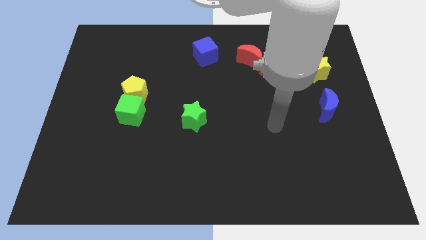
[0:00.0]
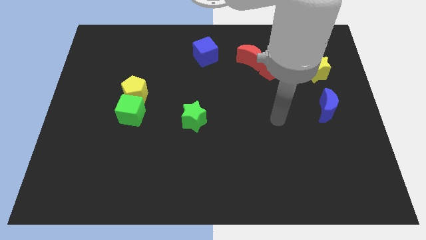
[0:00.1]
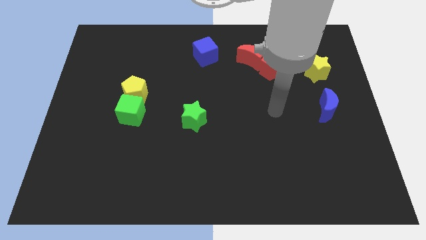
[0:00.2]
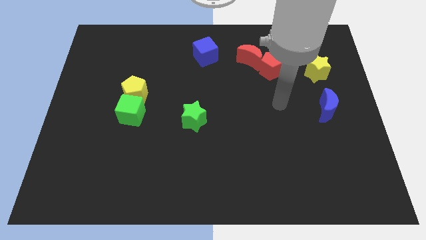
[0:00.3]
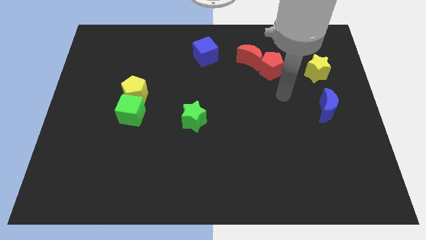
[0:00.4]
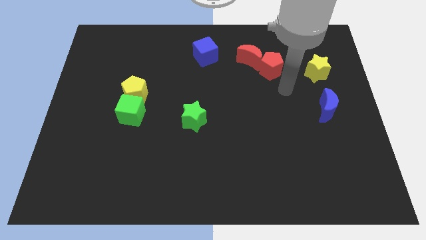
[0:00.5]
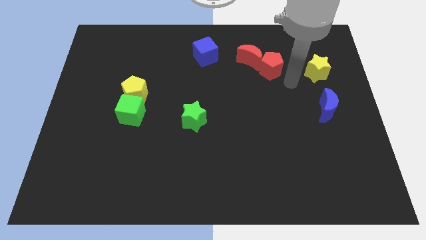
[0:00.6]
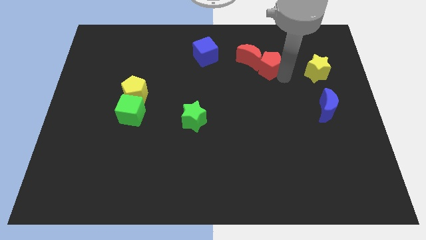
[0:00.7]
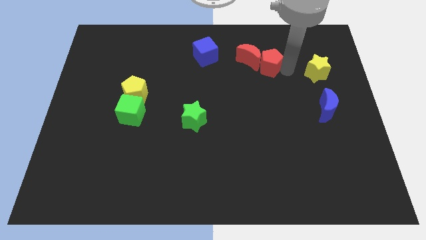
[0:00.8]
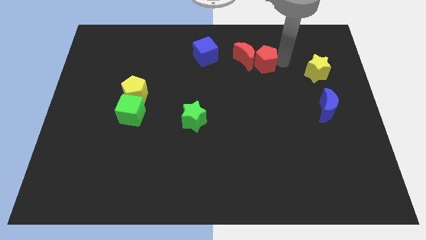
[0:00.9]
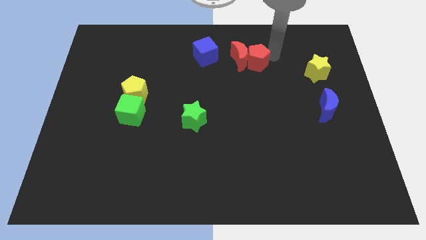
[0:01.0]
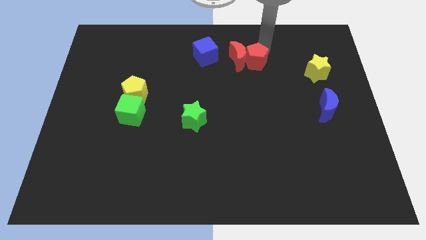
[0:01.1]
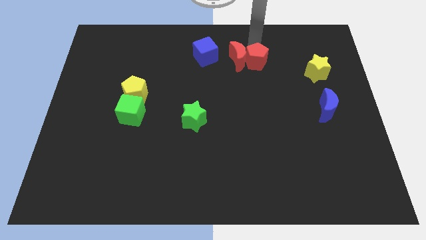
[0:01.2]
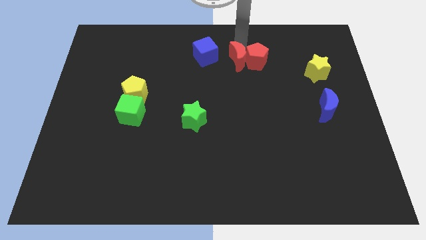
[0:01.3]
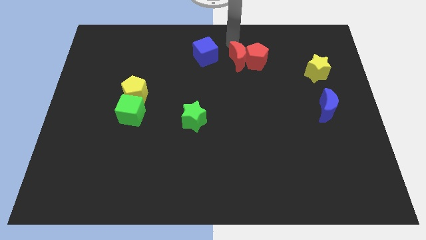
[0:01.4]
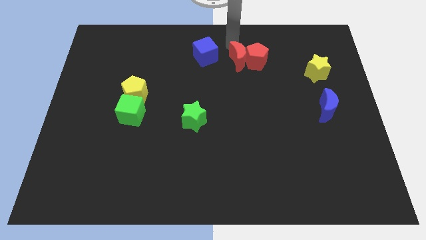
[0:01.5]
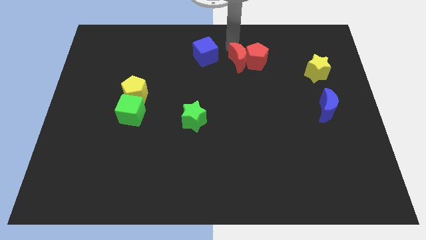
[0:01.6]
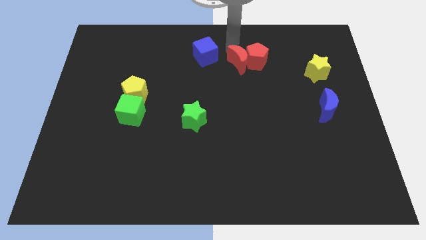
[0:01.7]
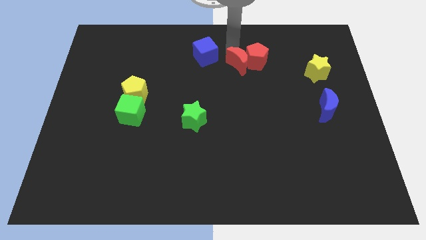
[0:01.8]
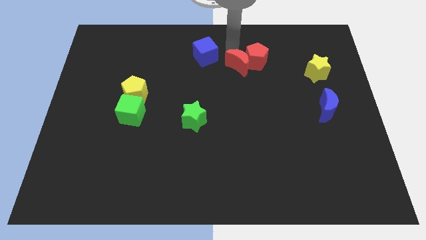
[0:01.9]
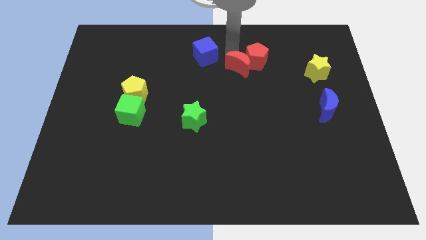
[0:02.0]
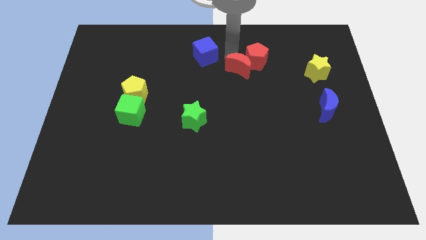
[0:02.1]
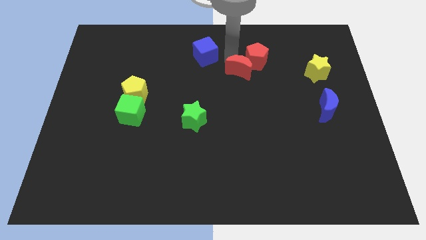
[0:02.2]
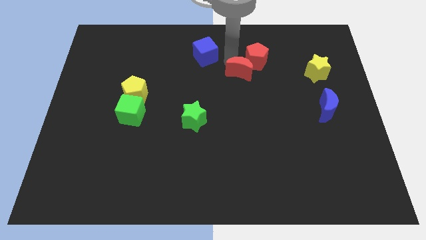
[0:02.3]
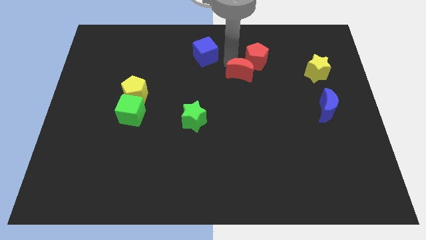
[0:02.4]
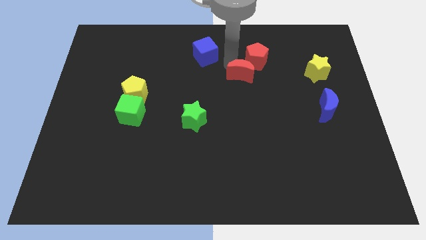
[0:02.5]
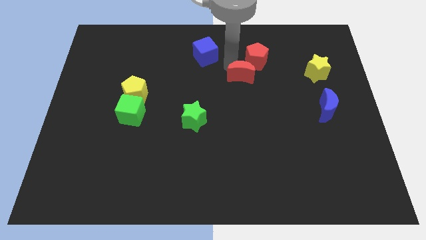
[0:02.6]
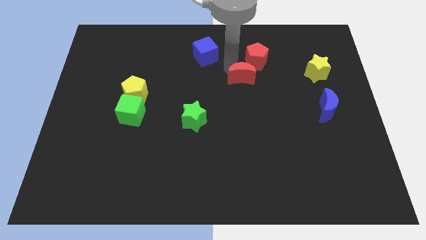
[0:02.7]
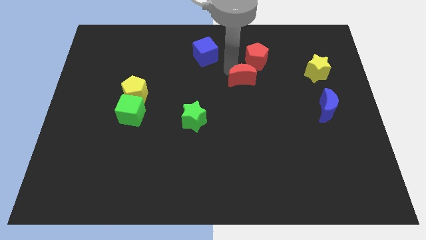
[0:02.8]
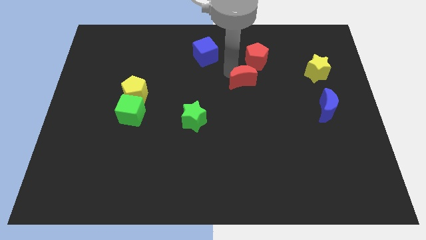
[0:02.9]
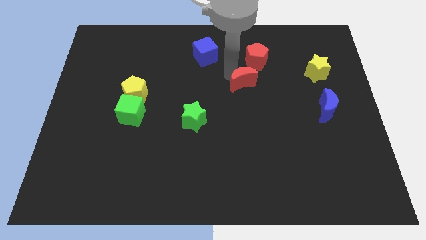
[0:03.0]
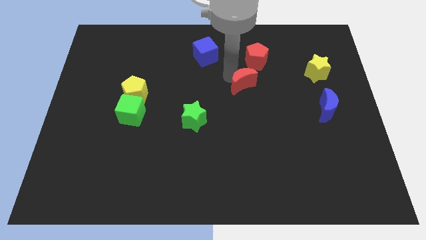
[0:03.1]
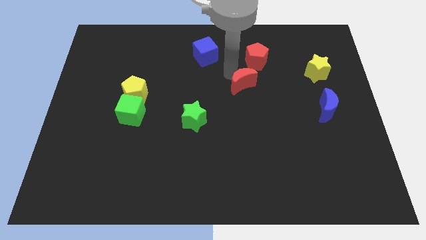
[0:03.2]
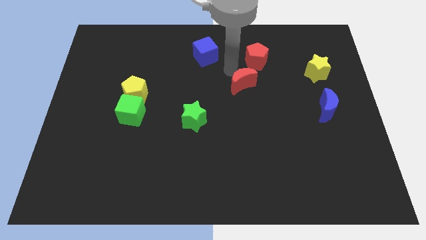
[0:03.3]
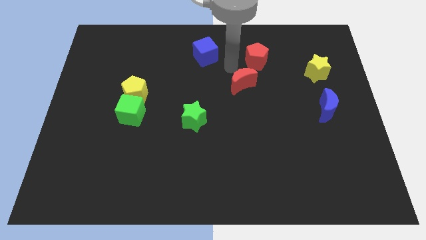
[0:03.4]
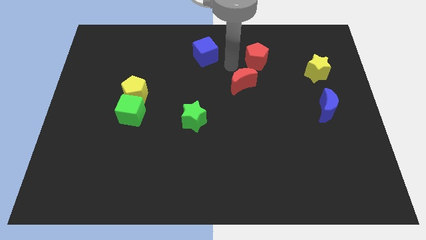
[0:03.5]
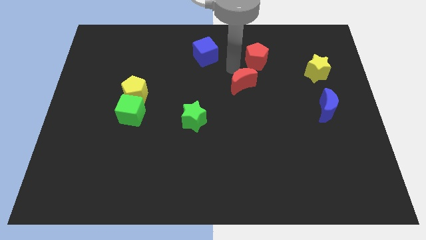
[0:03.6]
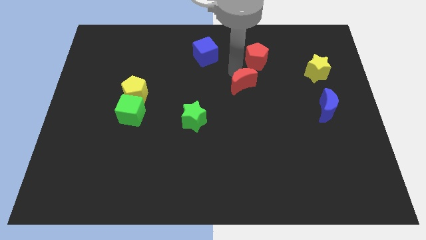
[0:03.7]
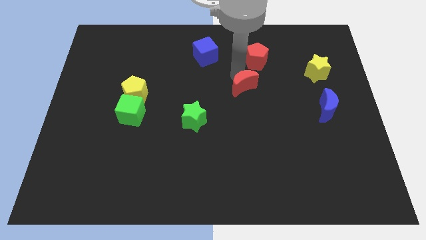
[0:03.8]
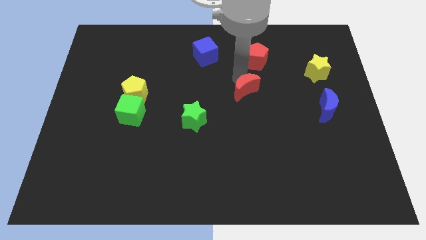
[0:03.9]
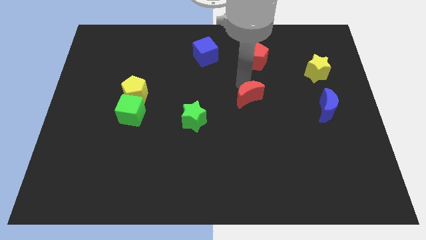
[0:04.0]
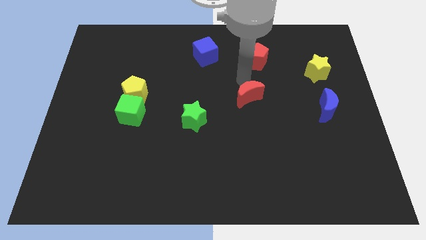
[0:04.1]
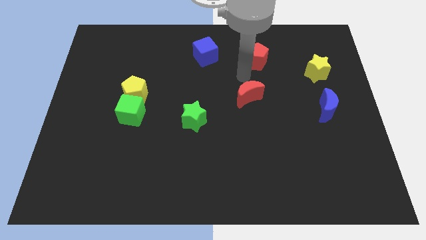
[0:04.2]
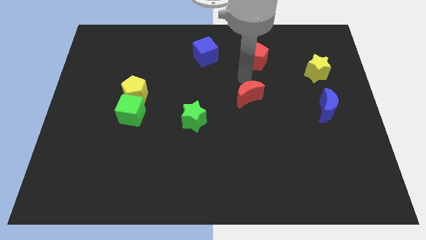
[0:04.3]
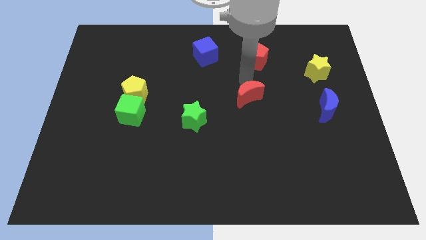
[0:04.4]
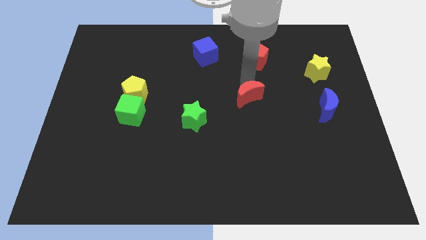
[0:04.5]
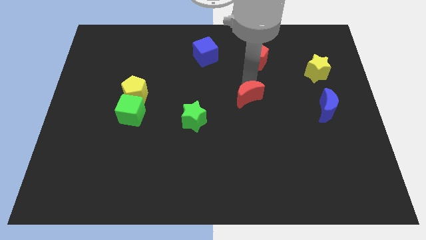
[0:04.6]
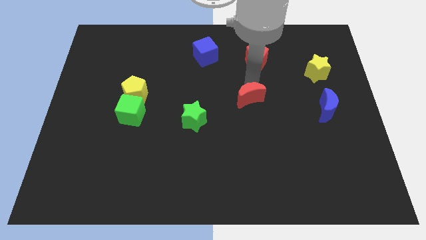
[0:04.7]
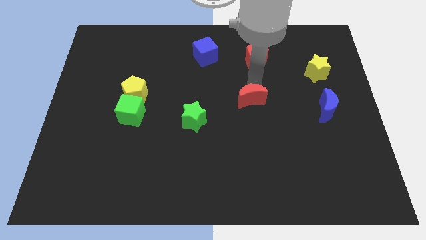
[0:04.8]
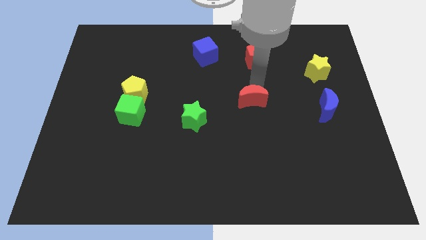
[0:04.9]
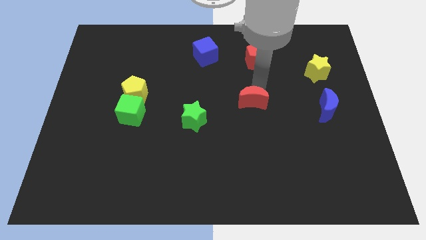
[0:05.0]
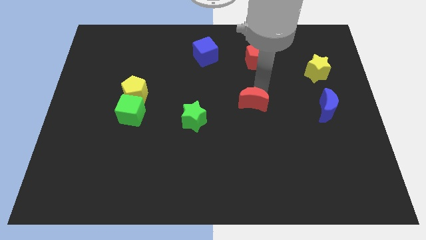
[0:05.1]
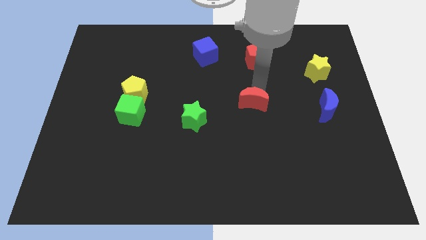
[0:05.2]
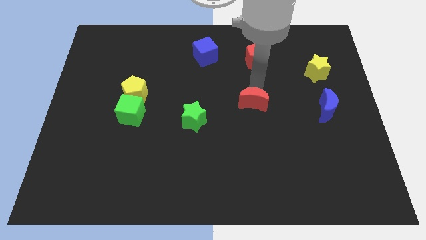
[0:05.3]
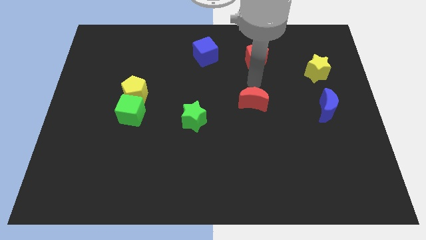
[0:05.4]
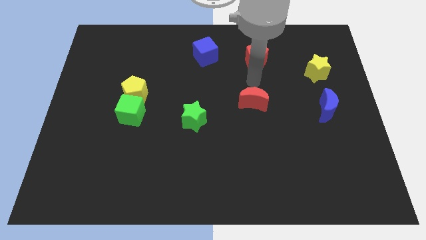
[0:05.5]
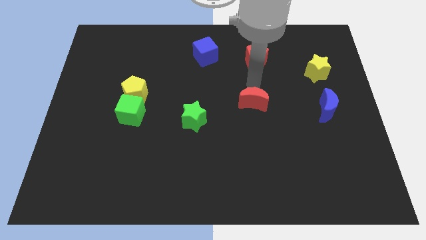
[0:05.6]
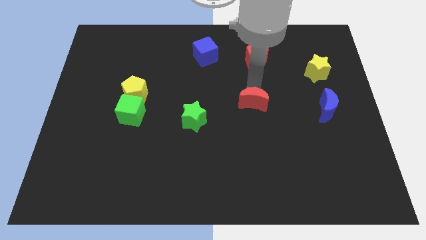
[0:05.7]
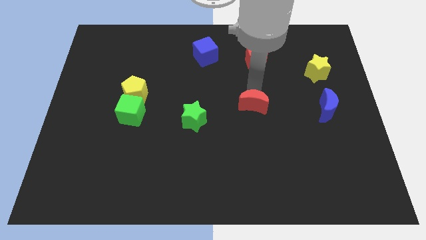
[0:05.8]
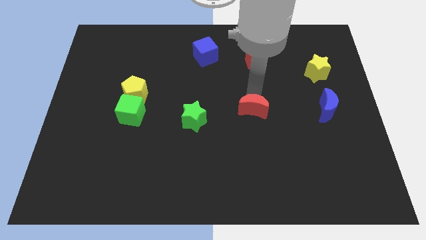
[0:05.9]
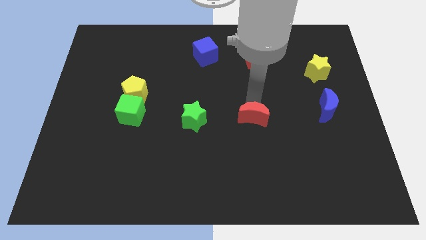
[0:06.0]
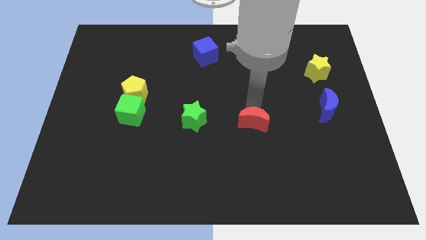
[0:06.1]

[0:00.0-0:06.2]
push the red moon down

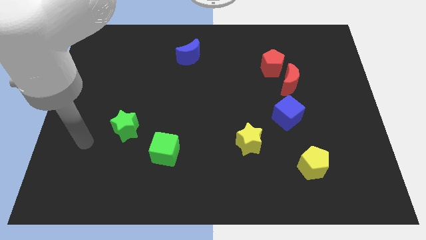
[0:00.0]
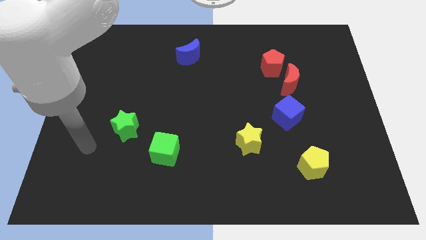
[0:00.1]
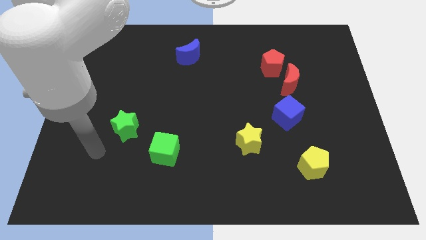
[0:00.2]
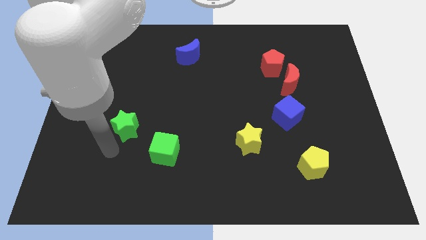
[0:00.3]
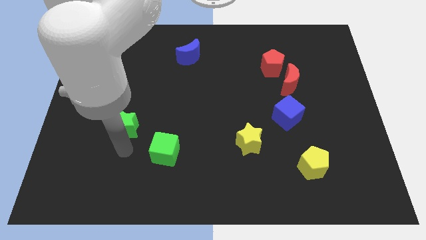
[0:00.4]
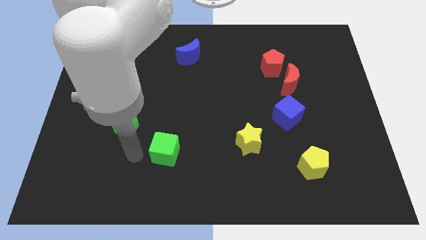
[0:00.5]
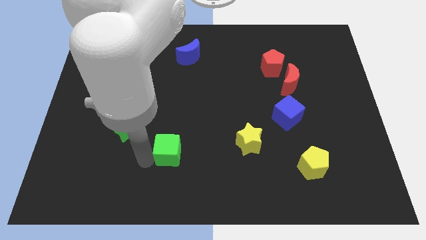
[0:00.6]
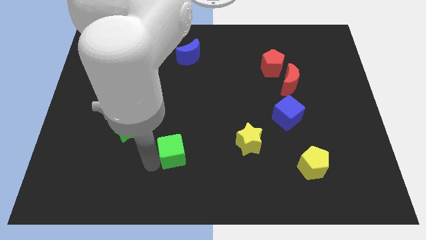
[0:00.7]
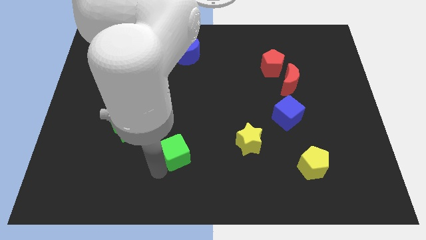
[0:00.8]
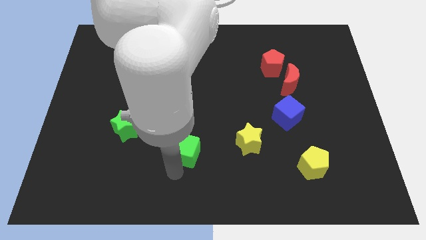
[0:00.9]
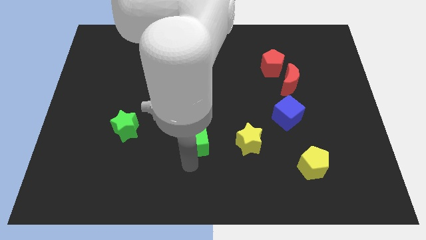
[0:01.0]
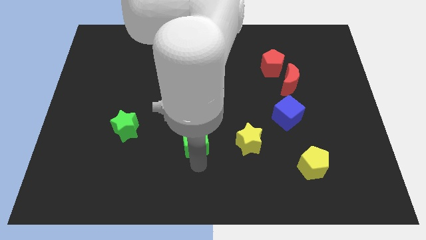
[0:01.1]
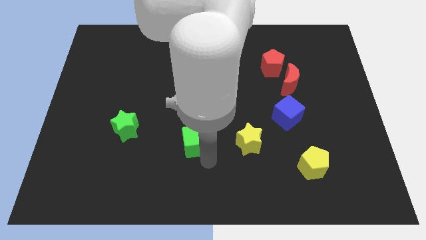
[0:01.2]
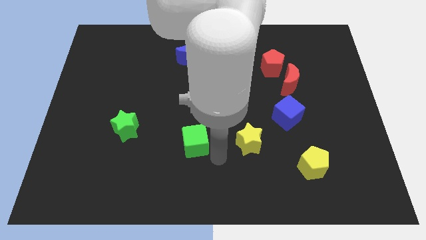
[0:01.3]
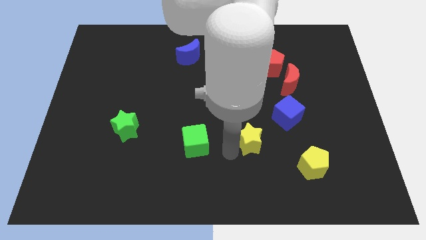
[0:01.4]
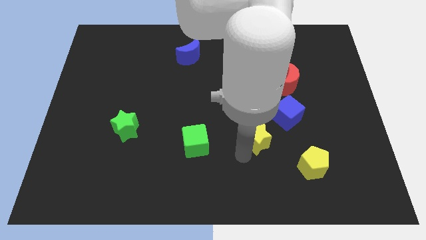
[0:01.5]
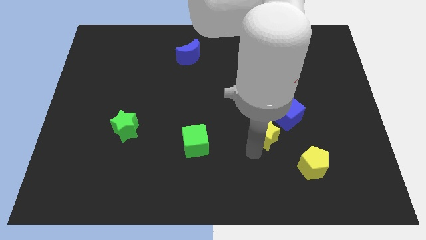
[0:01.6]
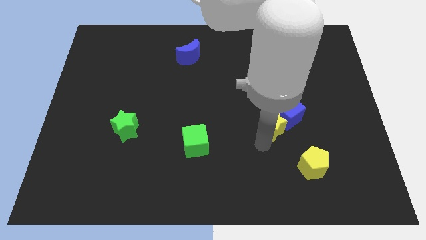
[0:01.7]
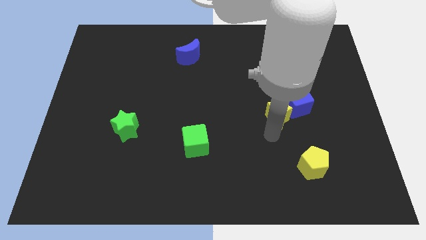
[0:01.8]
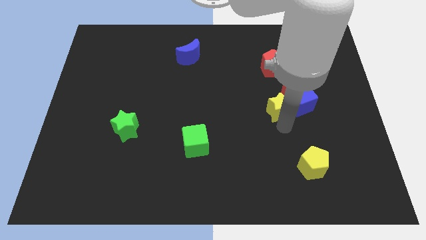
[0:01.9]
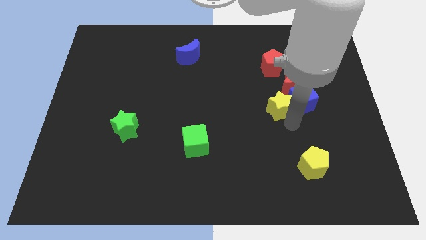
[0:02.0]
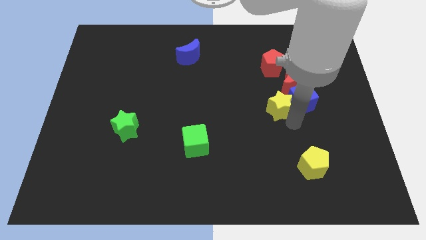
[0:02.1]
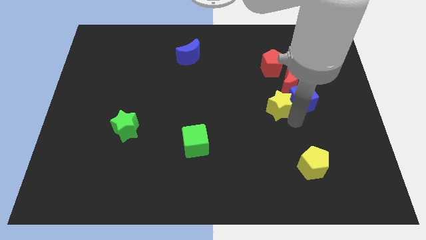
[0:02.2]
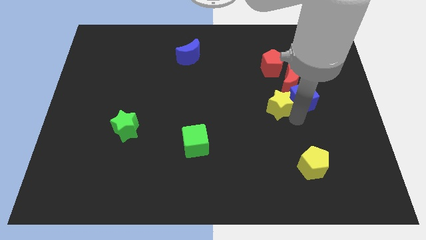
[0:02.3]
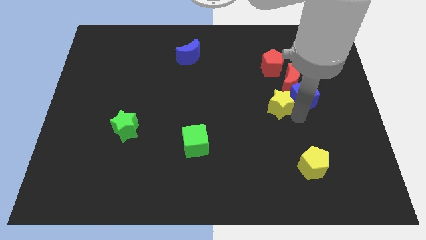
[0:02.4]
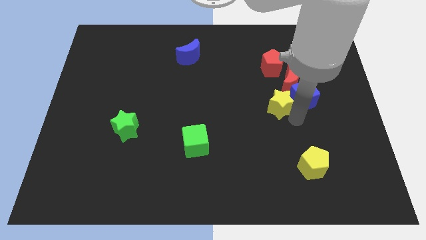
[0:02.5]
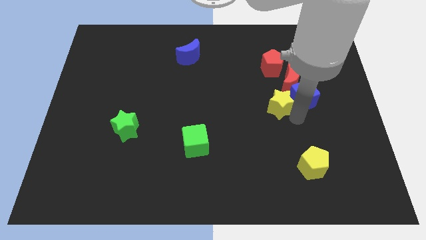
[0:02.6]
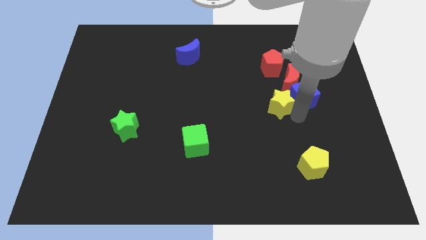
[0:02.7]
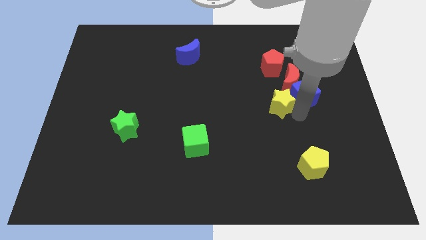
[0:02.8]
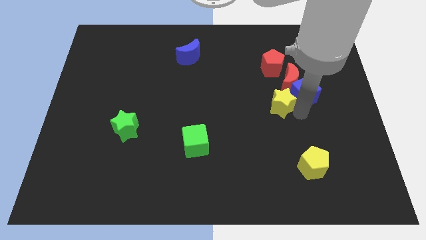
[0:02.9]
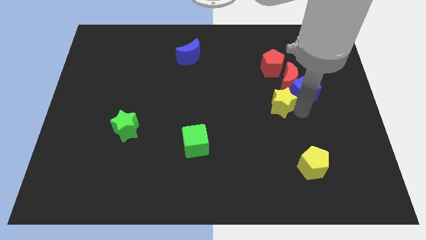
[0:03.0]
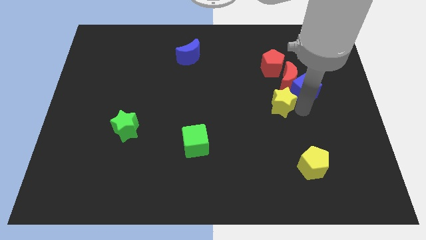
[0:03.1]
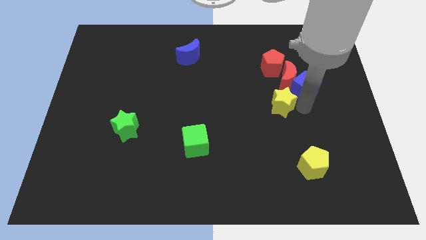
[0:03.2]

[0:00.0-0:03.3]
slightly slide the blue cube upwards
